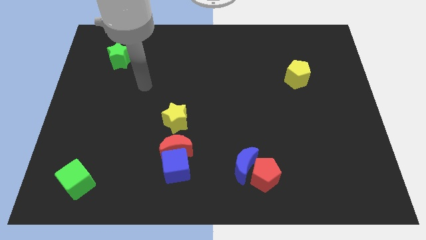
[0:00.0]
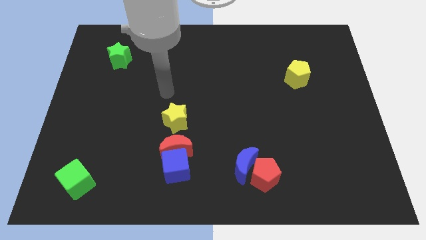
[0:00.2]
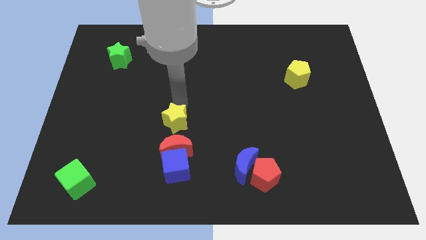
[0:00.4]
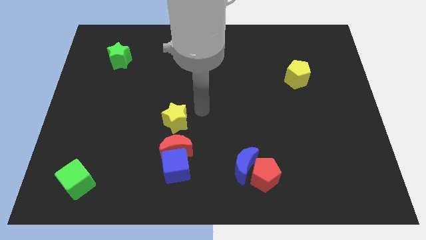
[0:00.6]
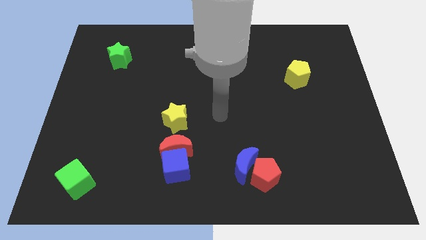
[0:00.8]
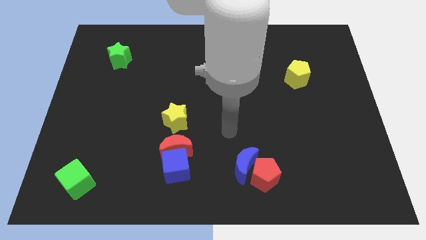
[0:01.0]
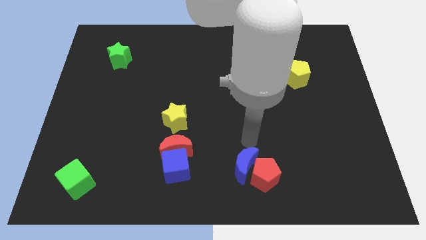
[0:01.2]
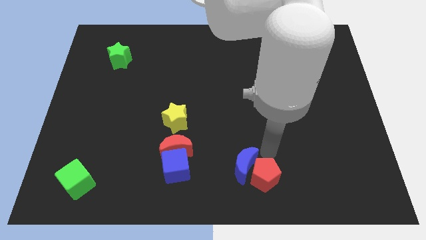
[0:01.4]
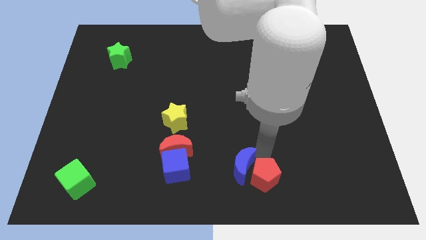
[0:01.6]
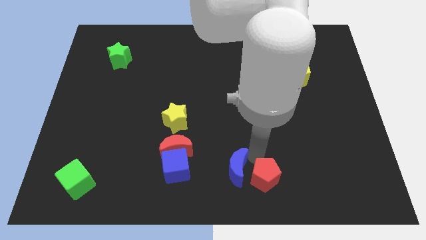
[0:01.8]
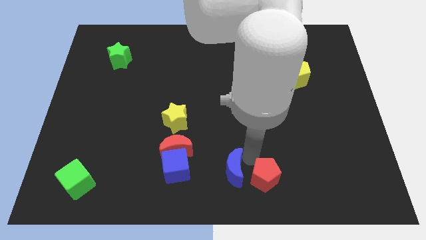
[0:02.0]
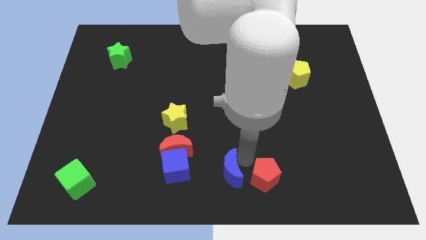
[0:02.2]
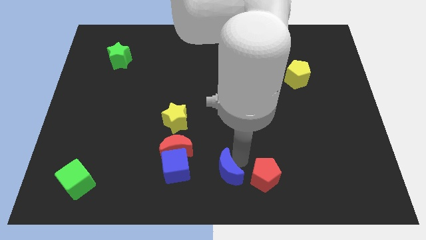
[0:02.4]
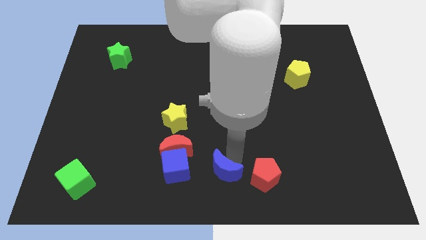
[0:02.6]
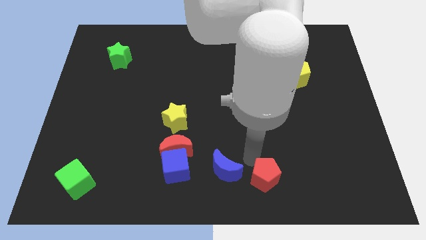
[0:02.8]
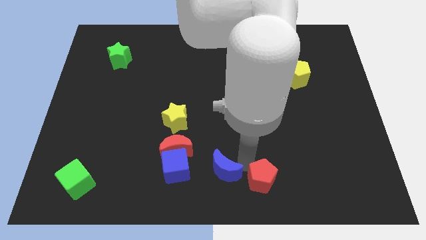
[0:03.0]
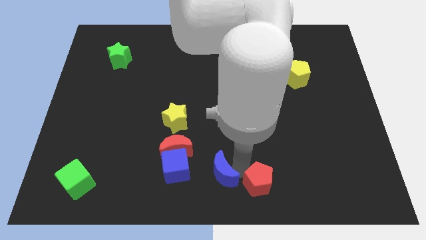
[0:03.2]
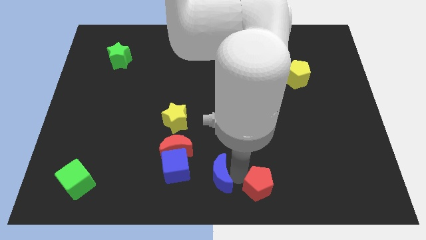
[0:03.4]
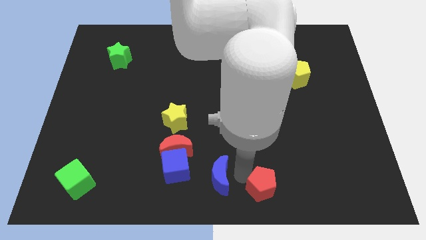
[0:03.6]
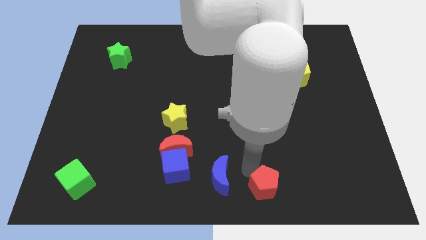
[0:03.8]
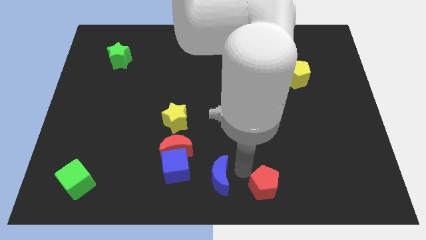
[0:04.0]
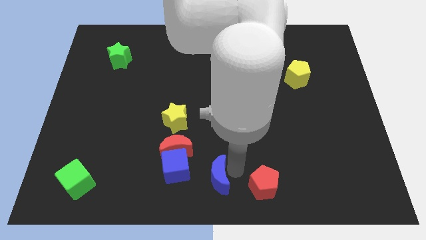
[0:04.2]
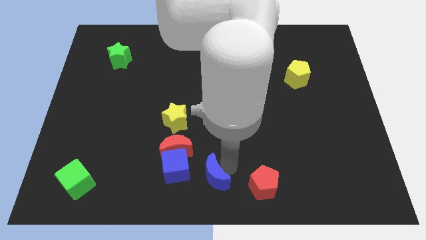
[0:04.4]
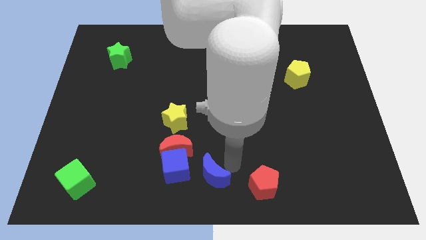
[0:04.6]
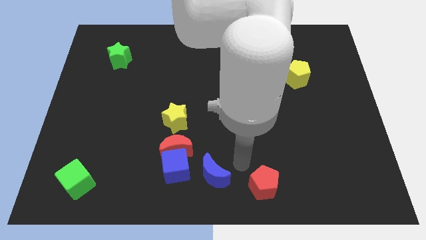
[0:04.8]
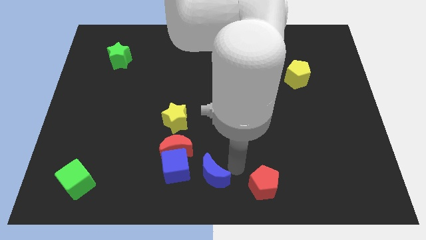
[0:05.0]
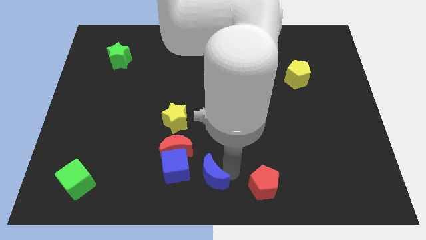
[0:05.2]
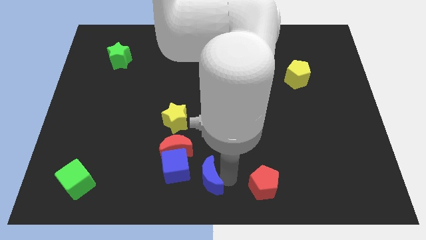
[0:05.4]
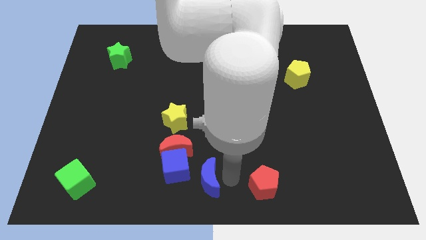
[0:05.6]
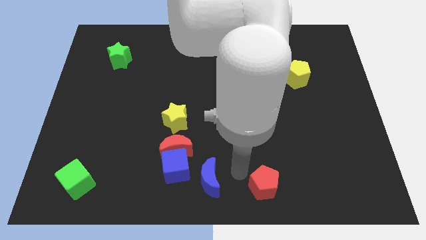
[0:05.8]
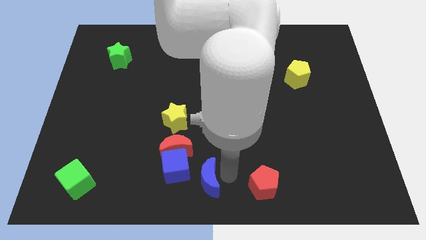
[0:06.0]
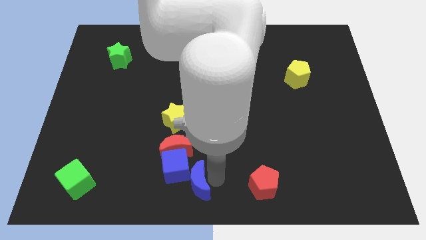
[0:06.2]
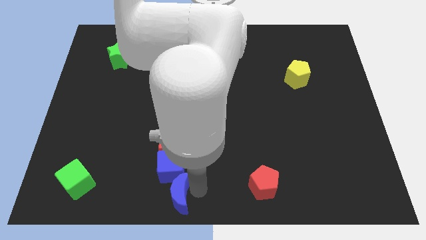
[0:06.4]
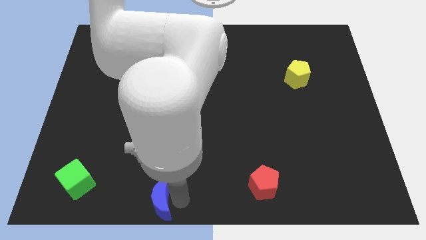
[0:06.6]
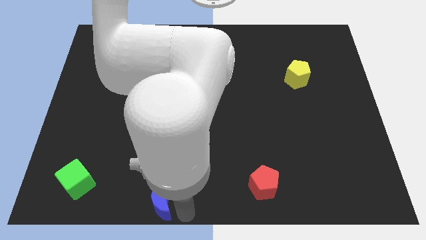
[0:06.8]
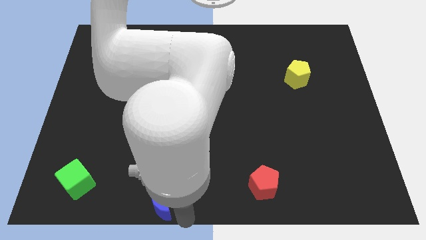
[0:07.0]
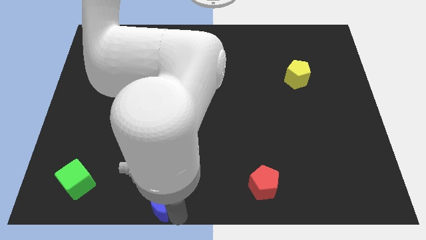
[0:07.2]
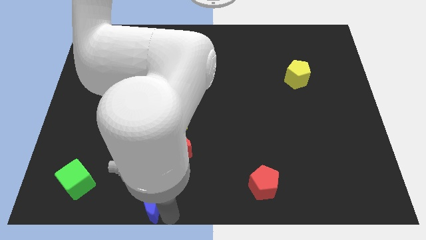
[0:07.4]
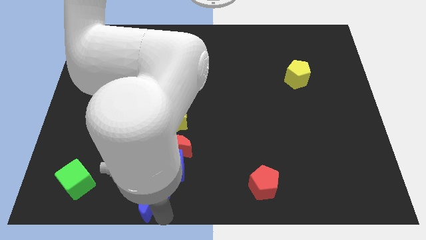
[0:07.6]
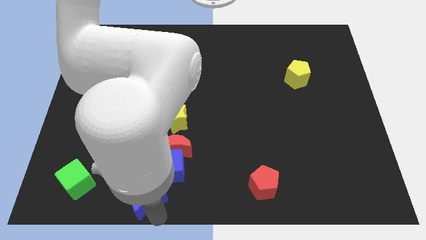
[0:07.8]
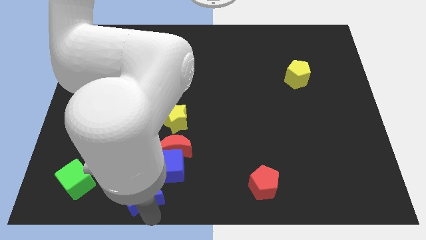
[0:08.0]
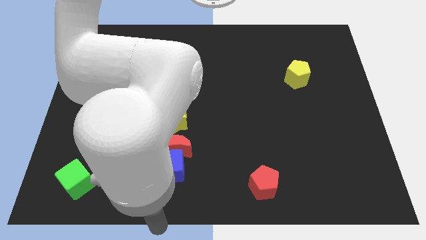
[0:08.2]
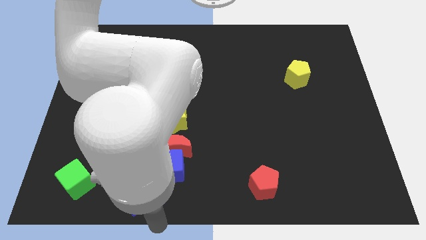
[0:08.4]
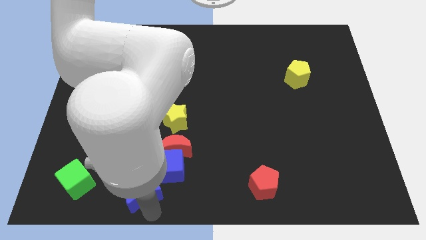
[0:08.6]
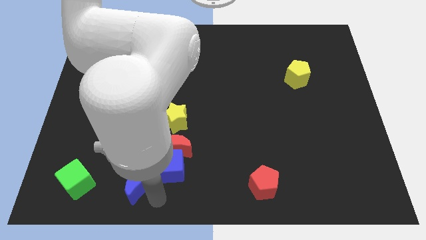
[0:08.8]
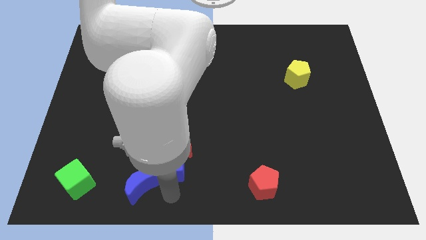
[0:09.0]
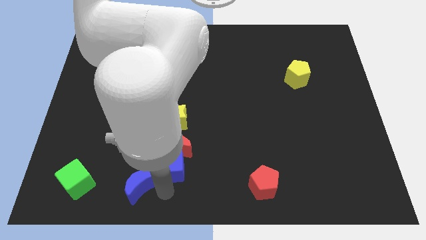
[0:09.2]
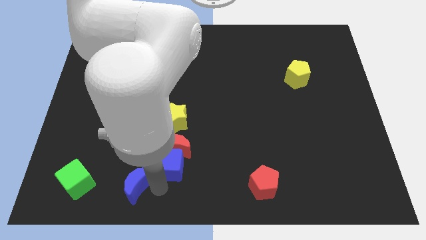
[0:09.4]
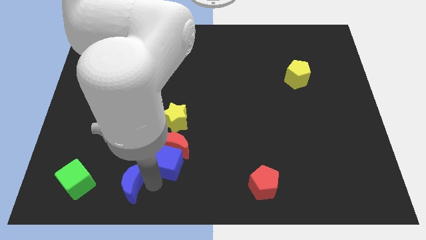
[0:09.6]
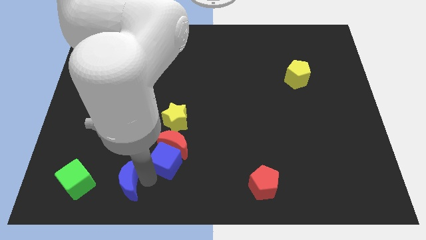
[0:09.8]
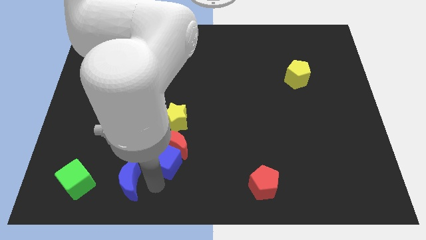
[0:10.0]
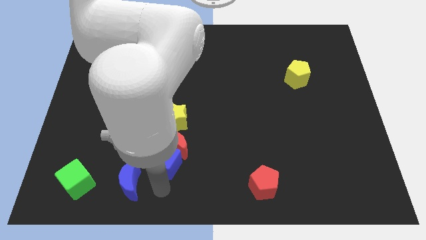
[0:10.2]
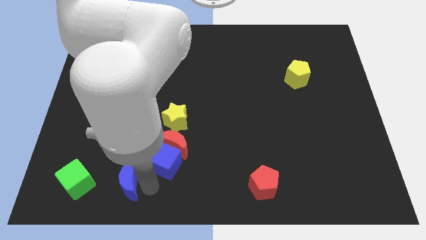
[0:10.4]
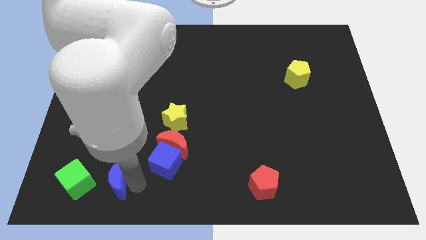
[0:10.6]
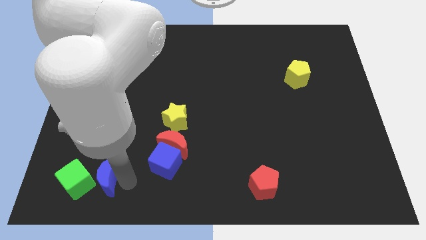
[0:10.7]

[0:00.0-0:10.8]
put the blue moon close to the green cube

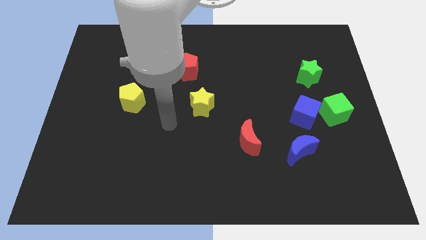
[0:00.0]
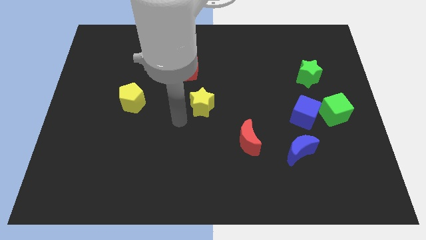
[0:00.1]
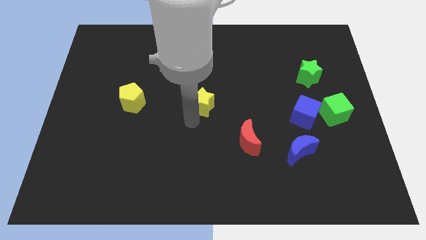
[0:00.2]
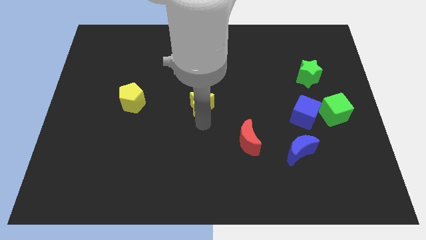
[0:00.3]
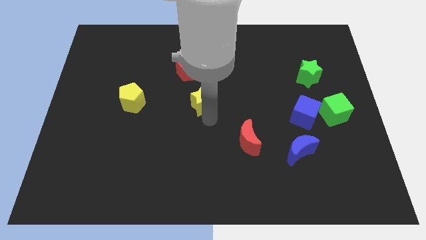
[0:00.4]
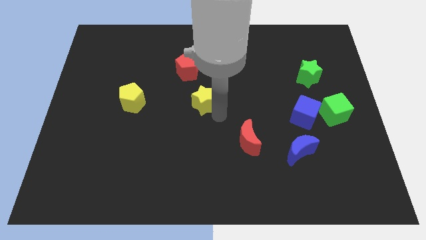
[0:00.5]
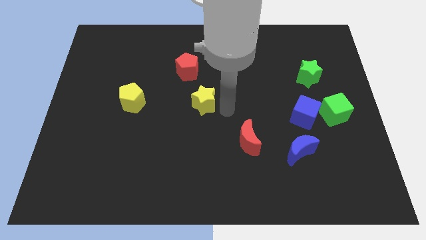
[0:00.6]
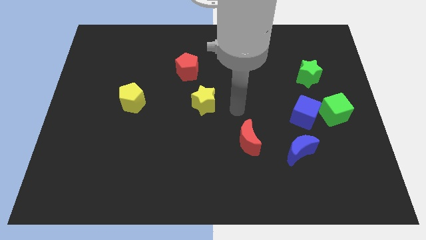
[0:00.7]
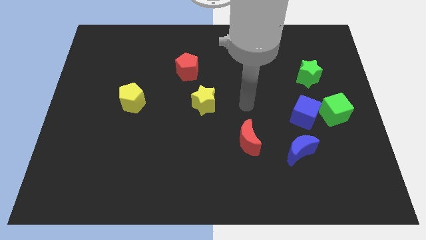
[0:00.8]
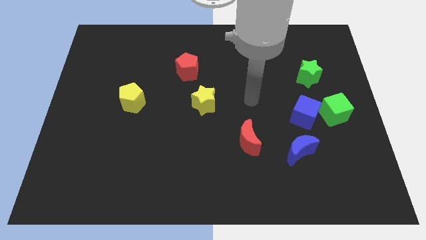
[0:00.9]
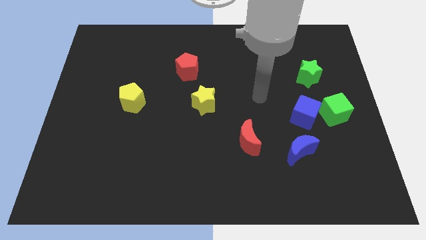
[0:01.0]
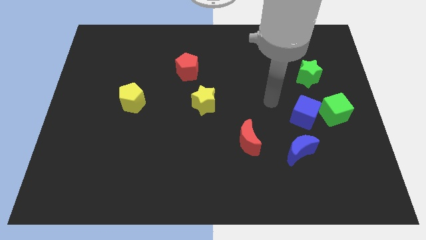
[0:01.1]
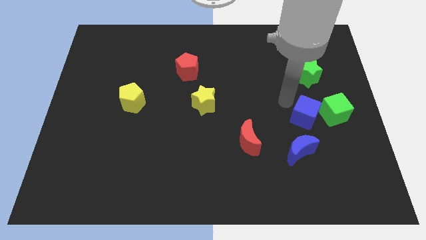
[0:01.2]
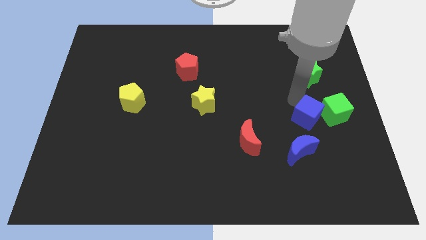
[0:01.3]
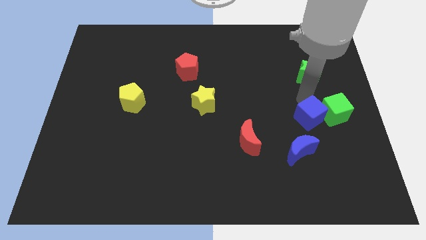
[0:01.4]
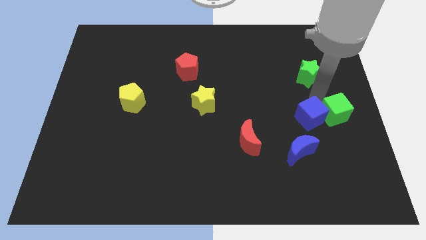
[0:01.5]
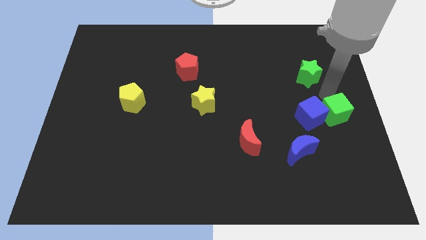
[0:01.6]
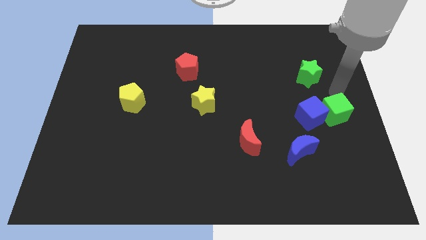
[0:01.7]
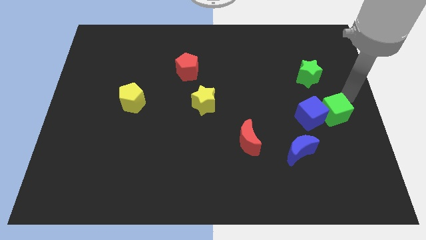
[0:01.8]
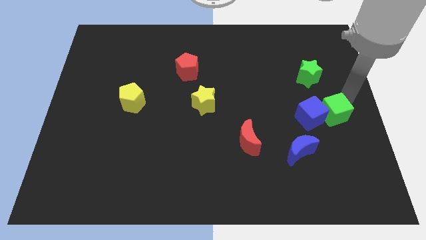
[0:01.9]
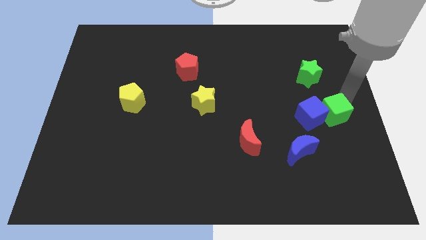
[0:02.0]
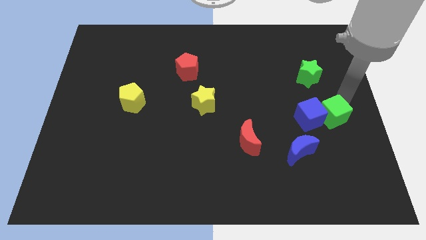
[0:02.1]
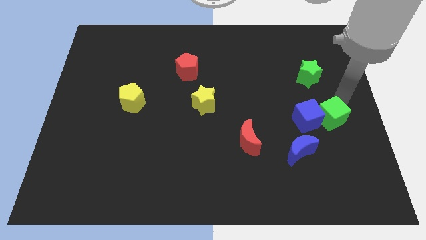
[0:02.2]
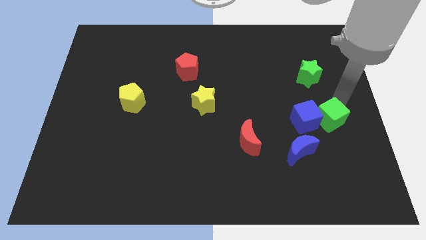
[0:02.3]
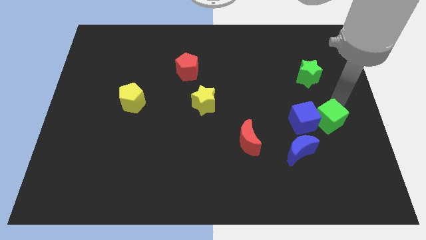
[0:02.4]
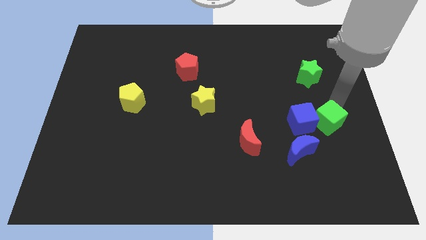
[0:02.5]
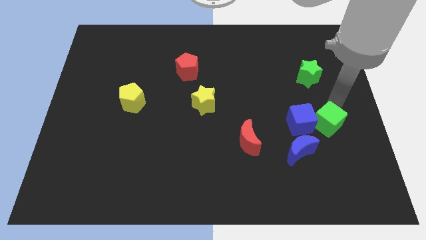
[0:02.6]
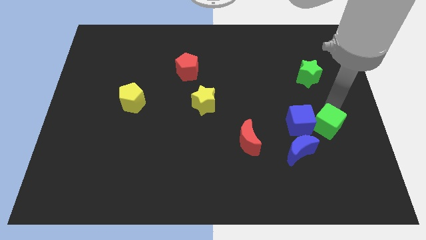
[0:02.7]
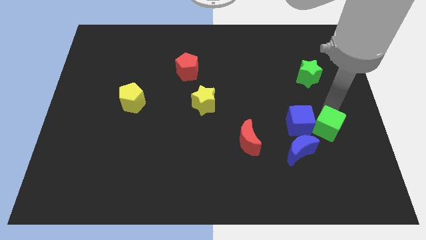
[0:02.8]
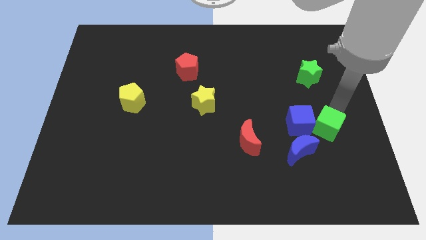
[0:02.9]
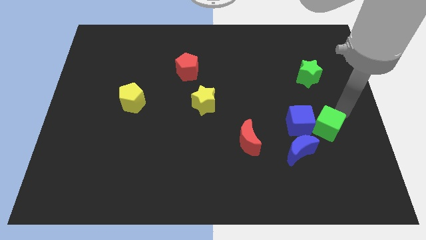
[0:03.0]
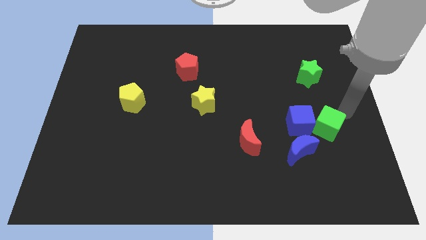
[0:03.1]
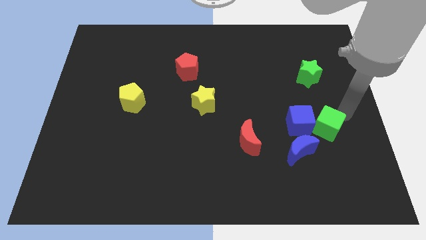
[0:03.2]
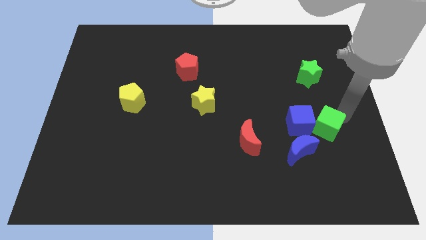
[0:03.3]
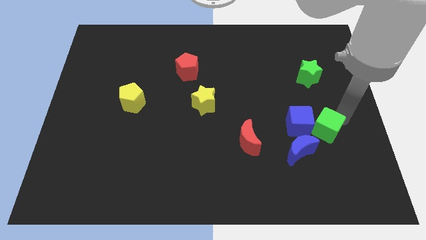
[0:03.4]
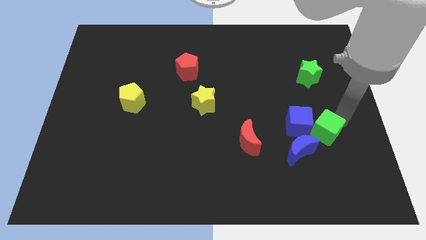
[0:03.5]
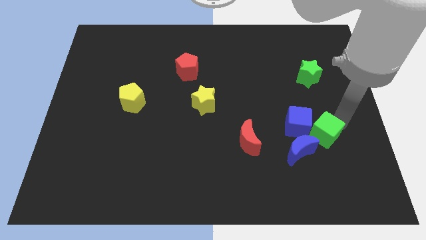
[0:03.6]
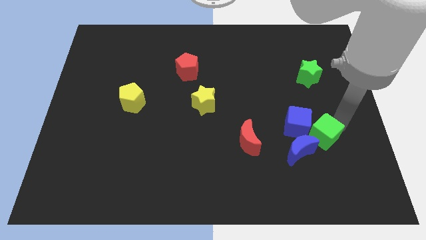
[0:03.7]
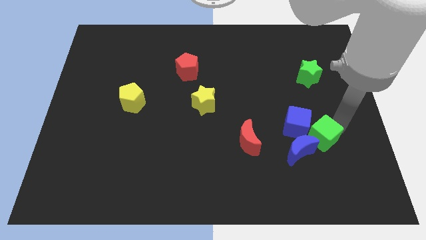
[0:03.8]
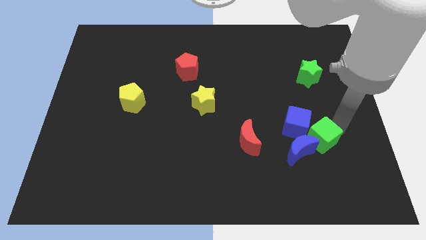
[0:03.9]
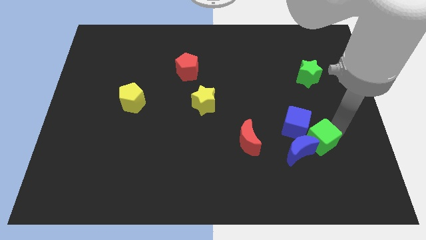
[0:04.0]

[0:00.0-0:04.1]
push the green cube towards the blue moon
